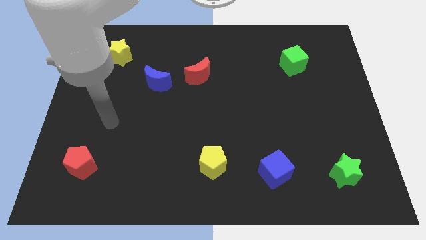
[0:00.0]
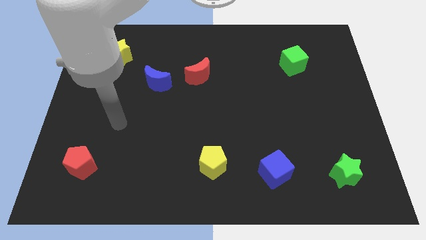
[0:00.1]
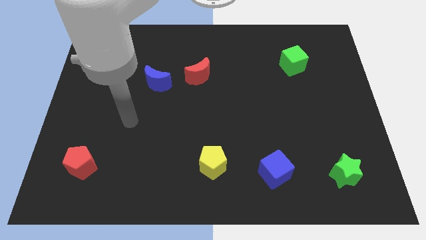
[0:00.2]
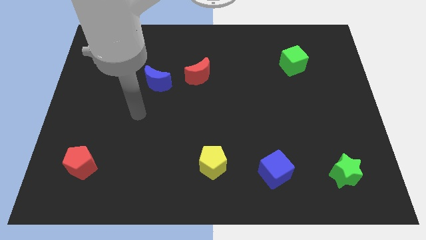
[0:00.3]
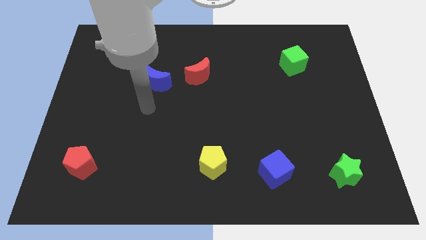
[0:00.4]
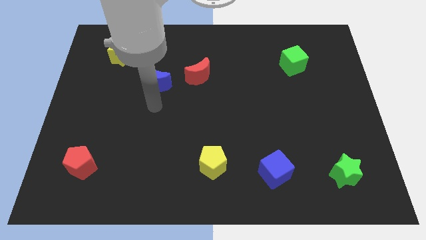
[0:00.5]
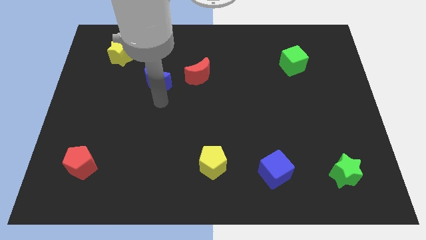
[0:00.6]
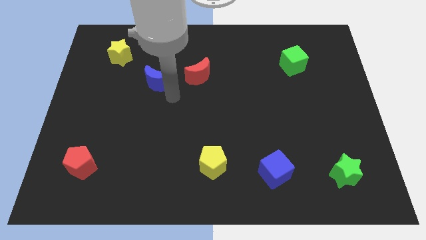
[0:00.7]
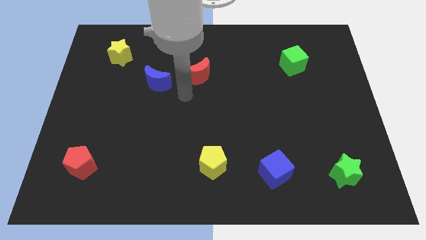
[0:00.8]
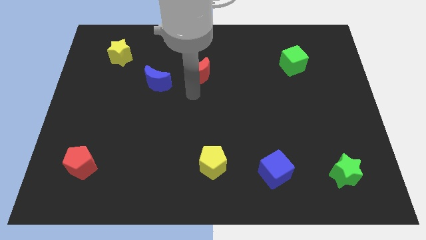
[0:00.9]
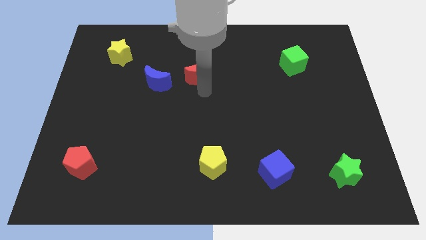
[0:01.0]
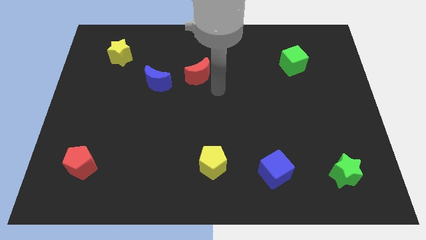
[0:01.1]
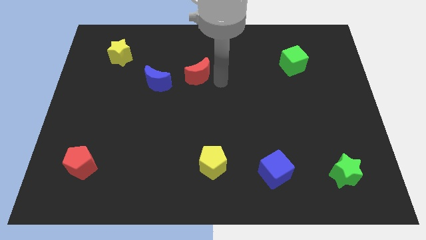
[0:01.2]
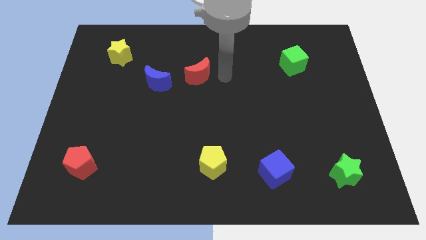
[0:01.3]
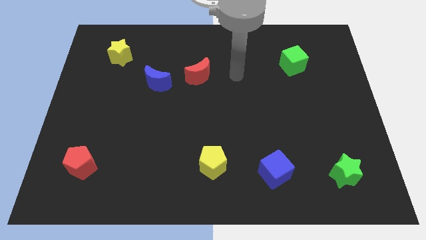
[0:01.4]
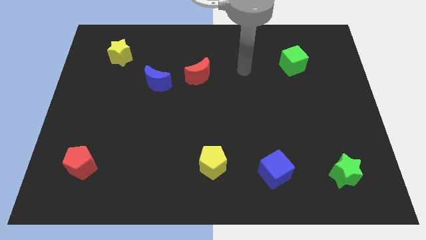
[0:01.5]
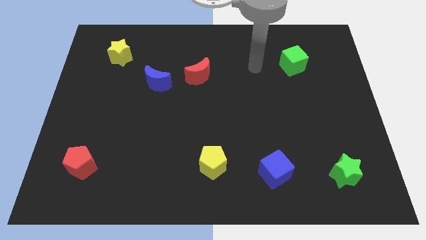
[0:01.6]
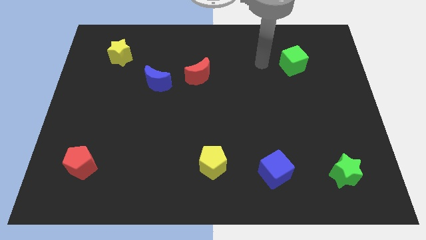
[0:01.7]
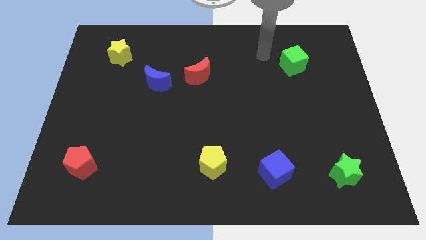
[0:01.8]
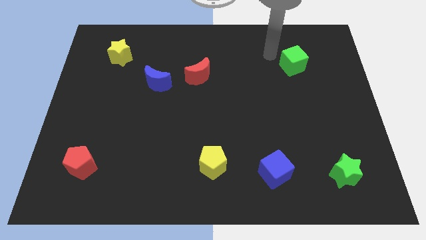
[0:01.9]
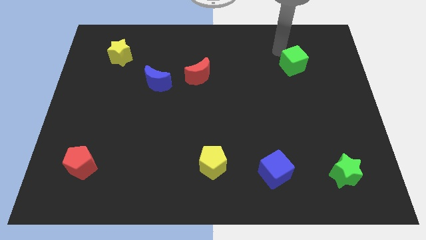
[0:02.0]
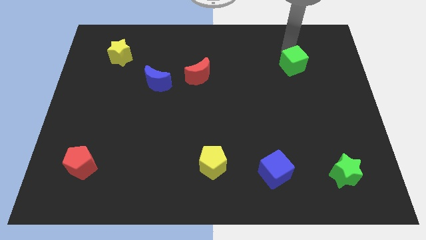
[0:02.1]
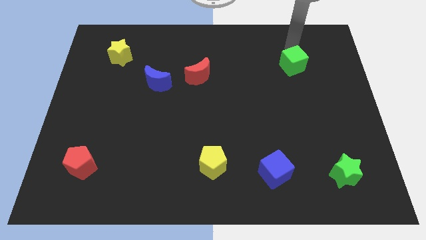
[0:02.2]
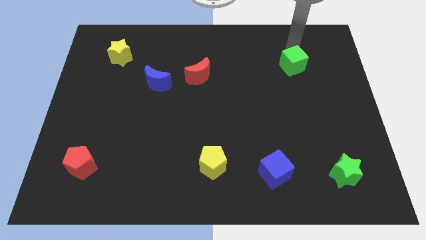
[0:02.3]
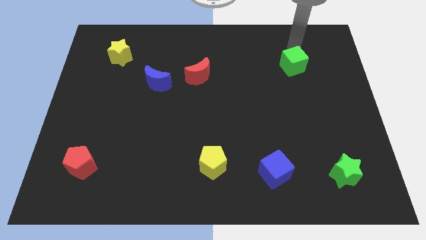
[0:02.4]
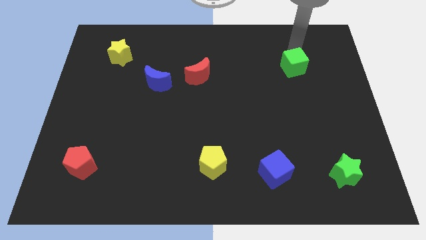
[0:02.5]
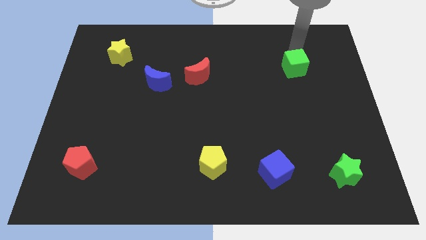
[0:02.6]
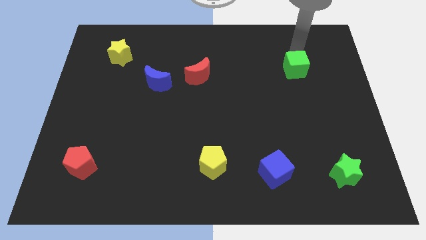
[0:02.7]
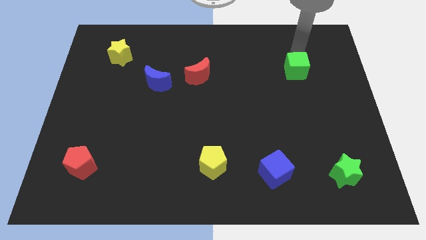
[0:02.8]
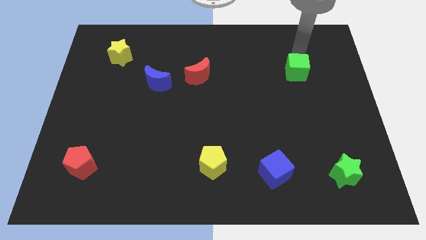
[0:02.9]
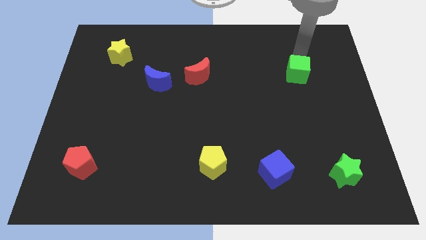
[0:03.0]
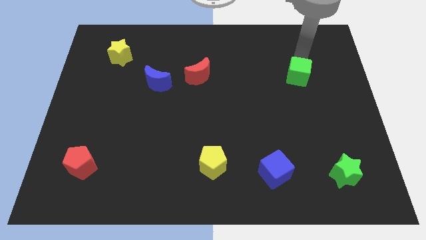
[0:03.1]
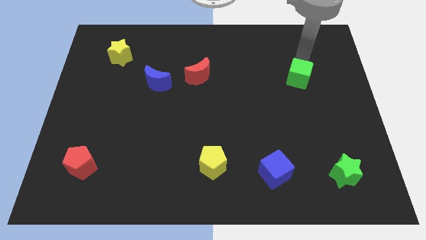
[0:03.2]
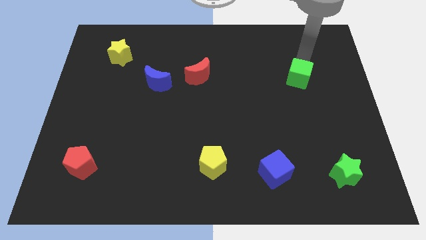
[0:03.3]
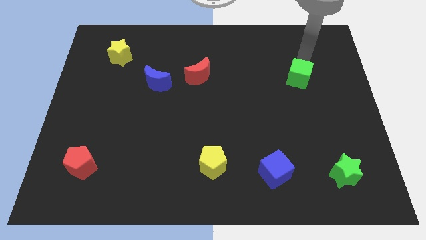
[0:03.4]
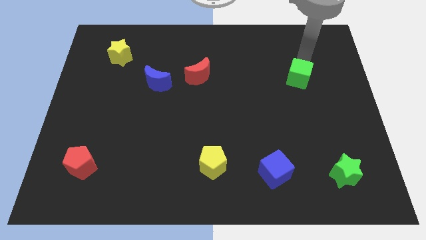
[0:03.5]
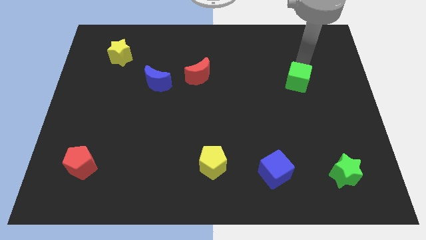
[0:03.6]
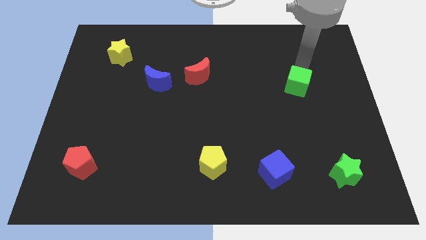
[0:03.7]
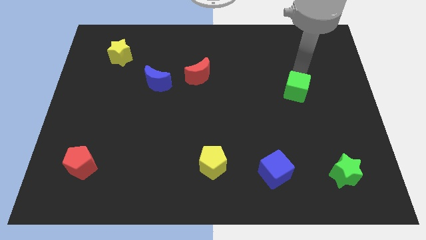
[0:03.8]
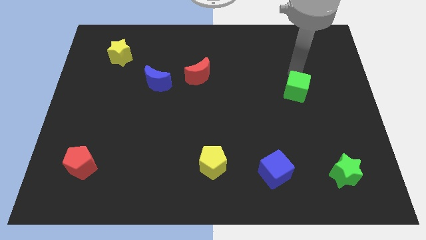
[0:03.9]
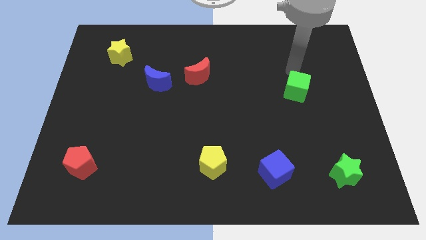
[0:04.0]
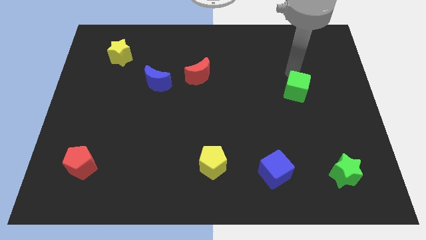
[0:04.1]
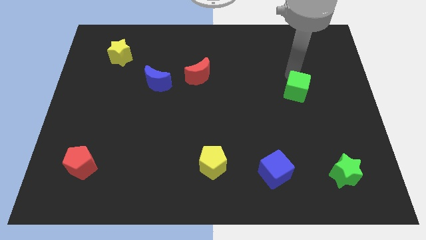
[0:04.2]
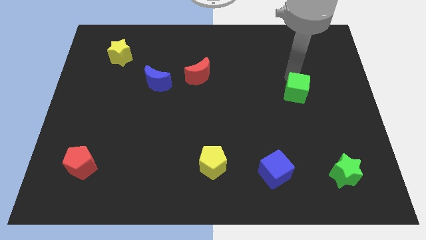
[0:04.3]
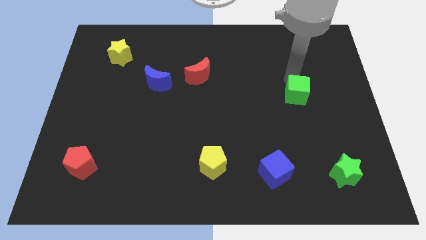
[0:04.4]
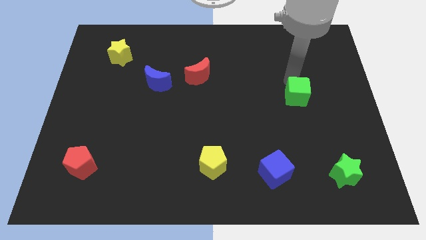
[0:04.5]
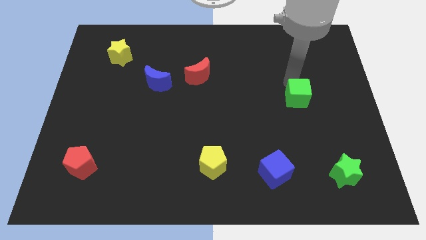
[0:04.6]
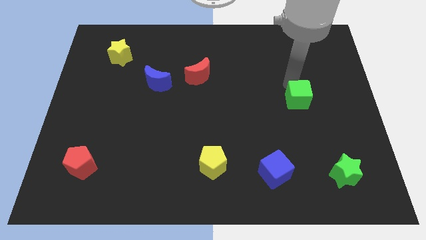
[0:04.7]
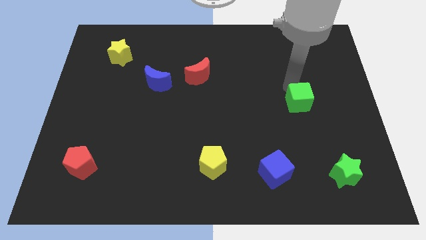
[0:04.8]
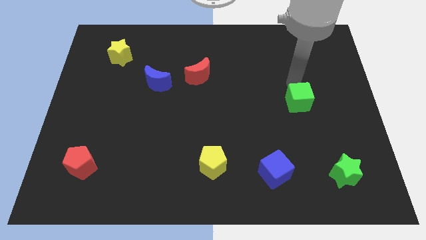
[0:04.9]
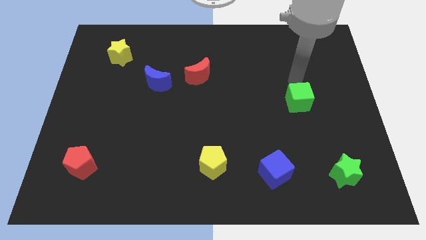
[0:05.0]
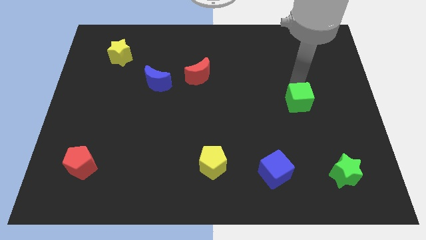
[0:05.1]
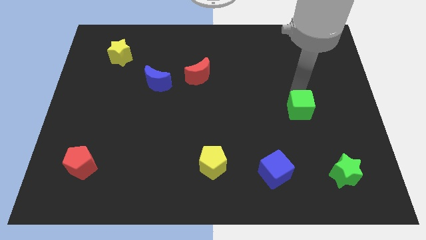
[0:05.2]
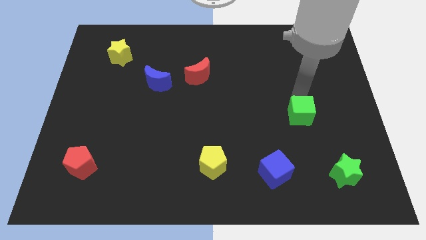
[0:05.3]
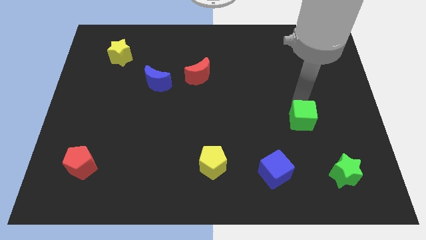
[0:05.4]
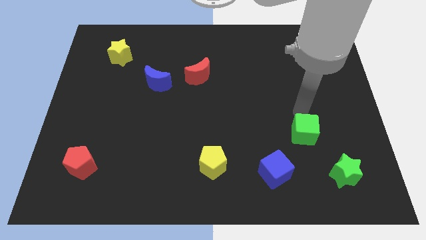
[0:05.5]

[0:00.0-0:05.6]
push the green cube down

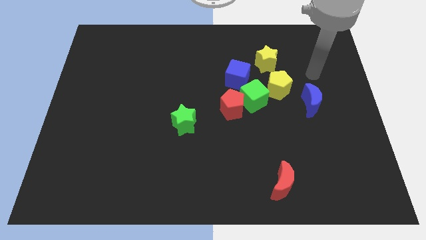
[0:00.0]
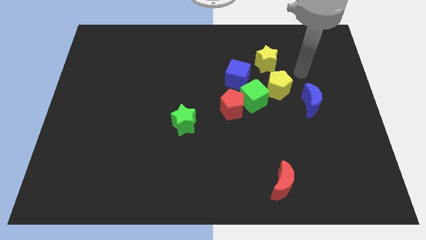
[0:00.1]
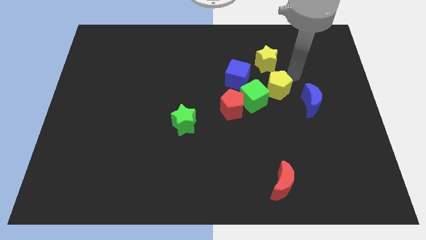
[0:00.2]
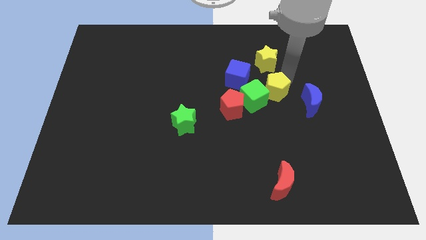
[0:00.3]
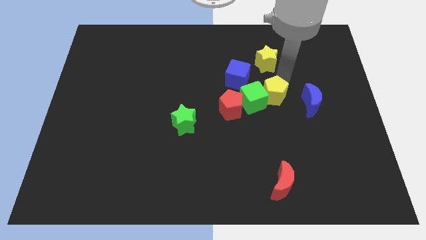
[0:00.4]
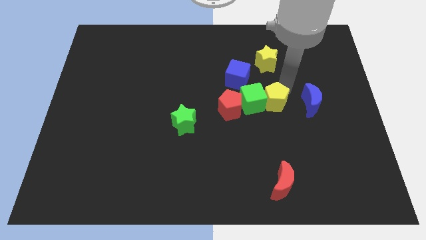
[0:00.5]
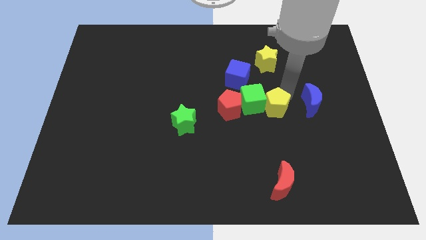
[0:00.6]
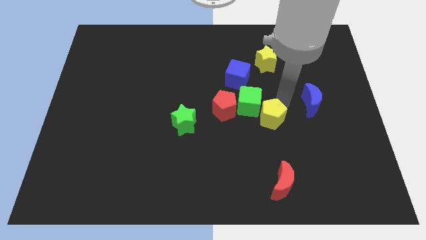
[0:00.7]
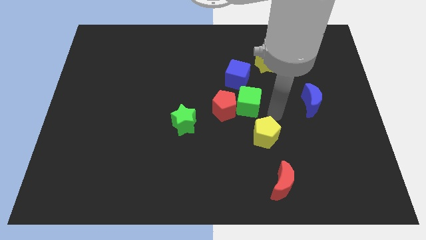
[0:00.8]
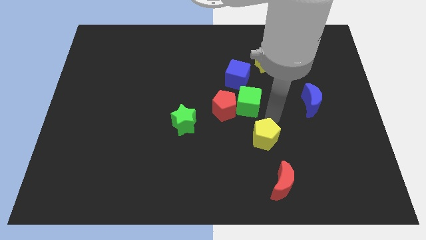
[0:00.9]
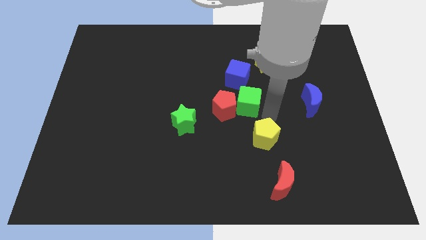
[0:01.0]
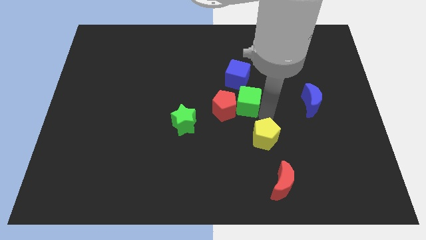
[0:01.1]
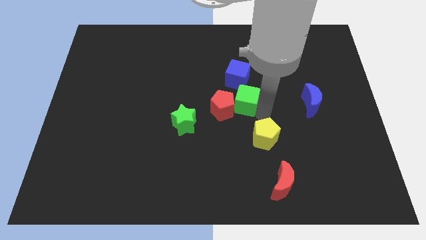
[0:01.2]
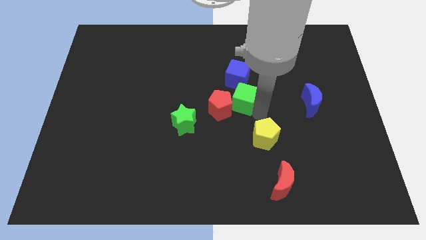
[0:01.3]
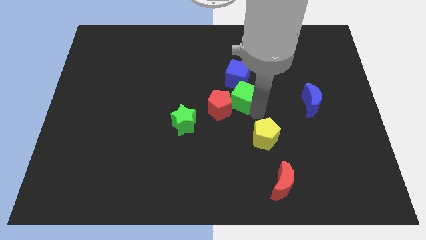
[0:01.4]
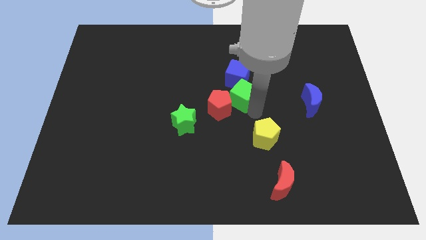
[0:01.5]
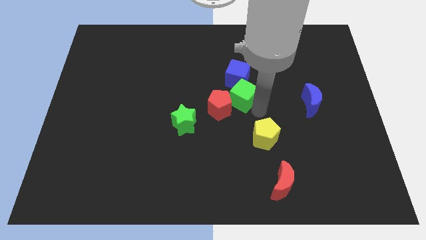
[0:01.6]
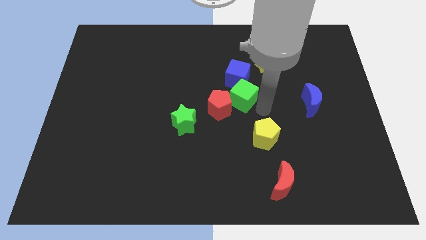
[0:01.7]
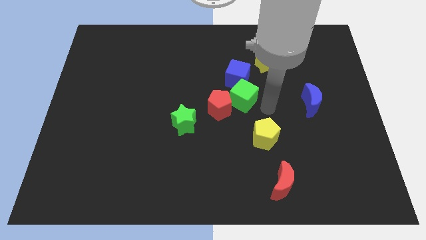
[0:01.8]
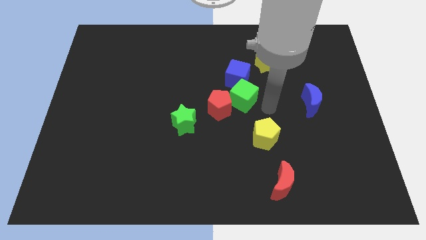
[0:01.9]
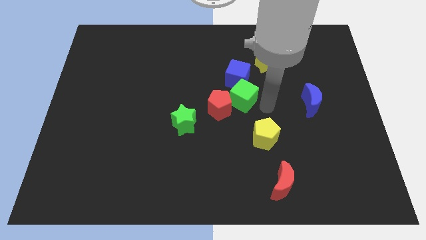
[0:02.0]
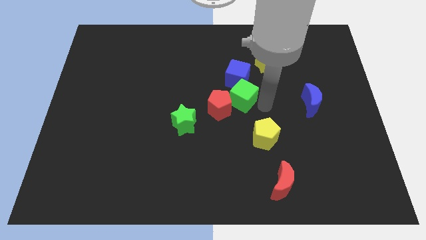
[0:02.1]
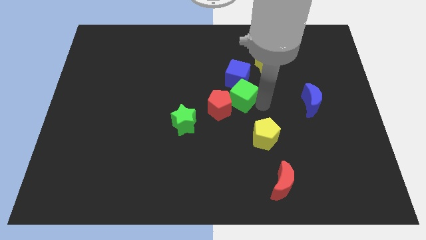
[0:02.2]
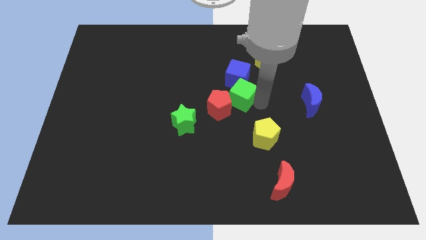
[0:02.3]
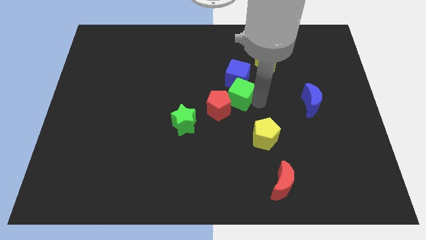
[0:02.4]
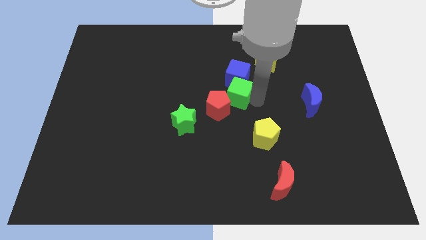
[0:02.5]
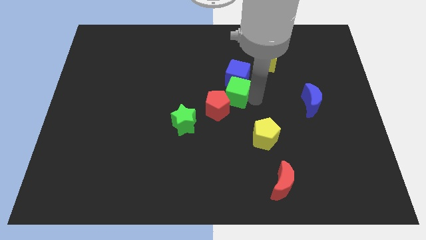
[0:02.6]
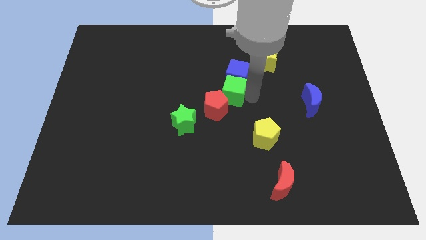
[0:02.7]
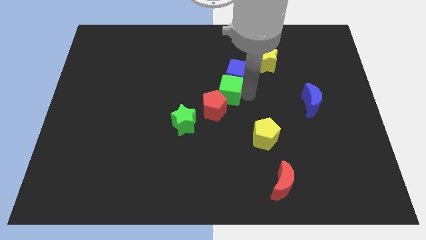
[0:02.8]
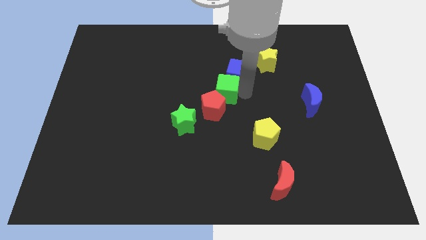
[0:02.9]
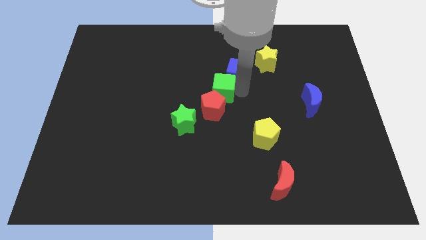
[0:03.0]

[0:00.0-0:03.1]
push the green cube left a bit
